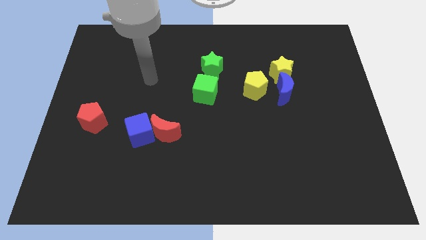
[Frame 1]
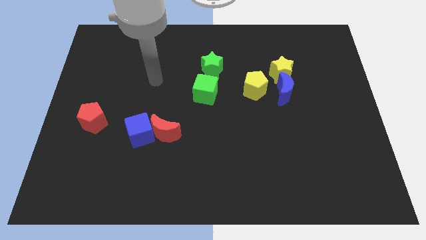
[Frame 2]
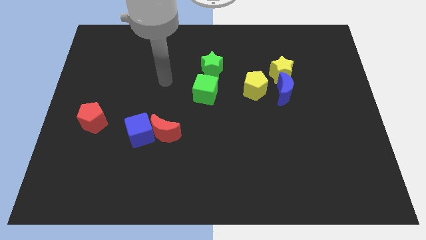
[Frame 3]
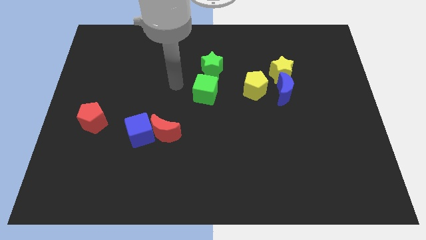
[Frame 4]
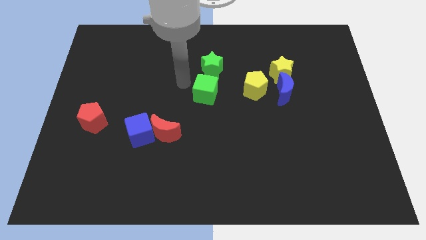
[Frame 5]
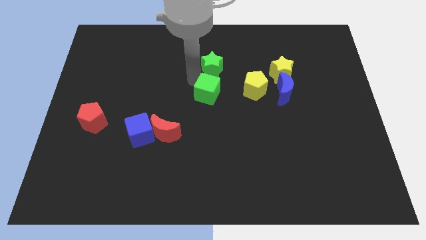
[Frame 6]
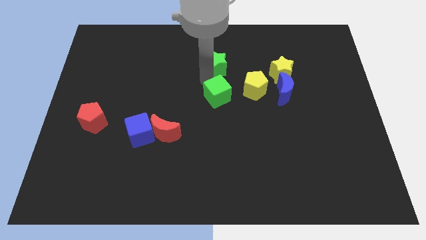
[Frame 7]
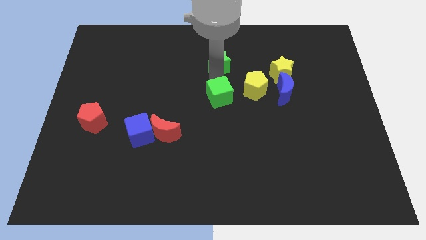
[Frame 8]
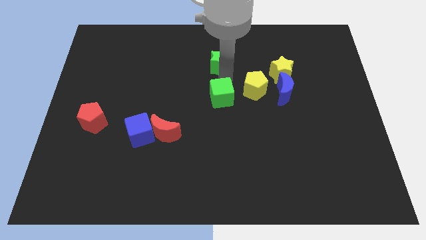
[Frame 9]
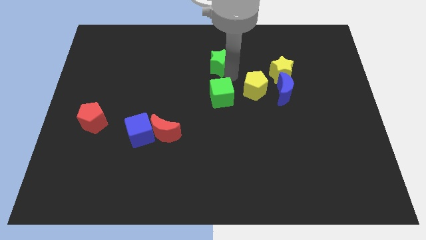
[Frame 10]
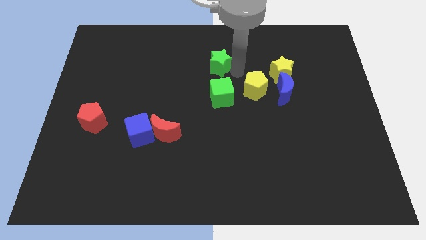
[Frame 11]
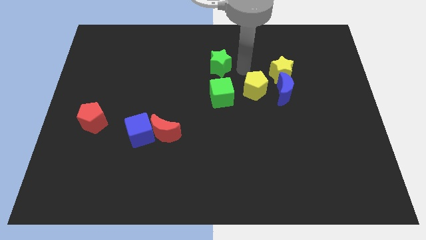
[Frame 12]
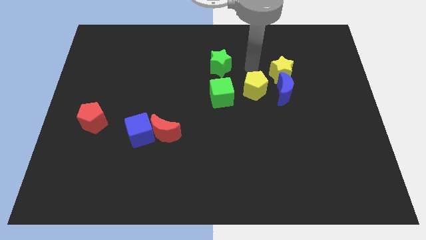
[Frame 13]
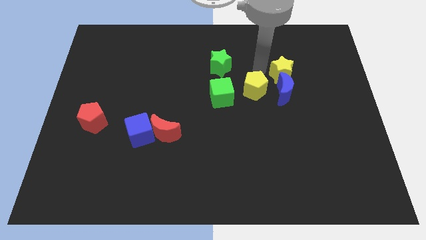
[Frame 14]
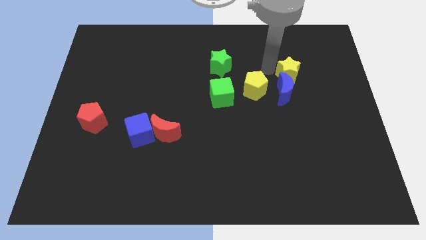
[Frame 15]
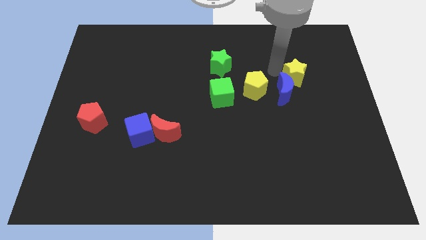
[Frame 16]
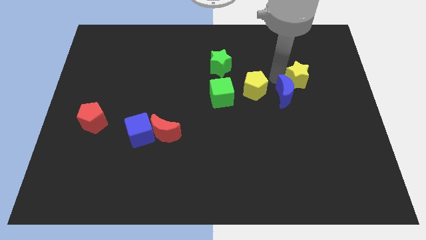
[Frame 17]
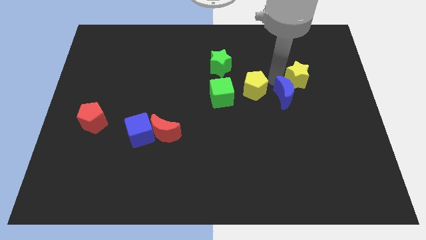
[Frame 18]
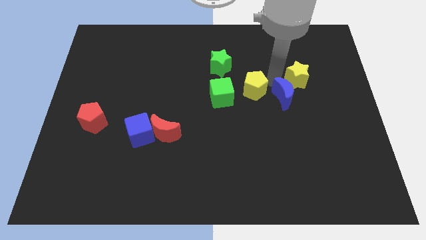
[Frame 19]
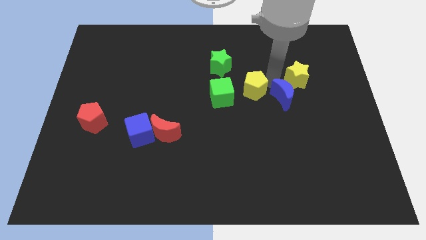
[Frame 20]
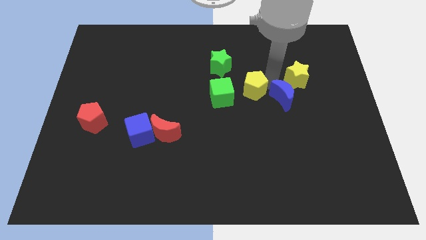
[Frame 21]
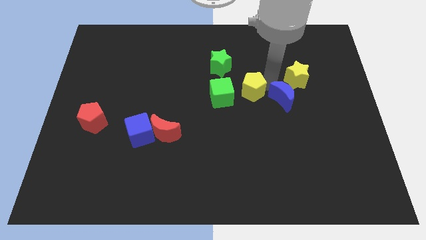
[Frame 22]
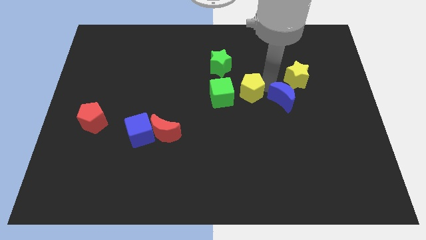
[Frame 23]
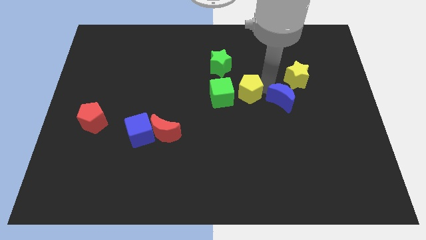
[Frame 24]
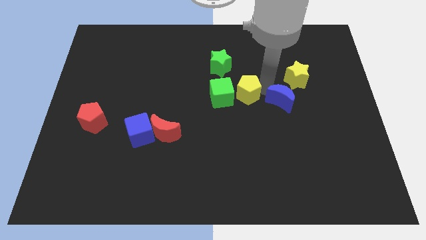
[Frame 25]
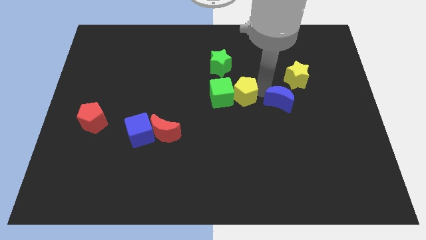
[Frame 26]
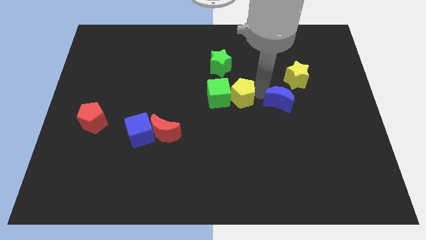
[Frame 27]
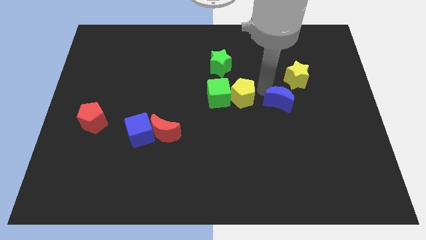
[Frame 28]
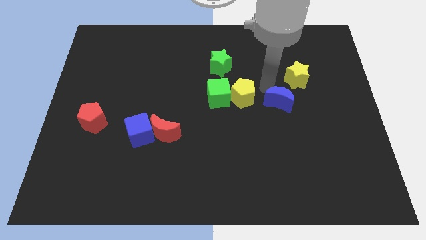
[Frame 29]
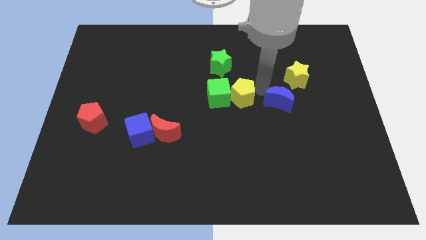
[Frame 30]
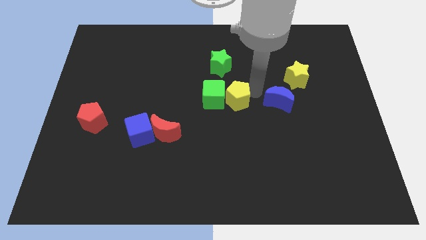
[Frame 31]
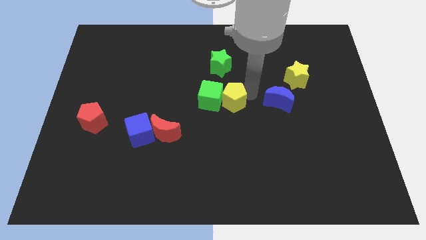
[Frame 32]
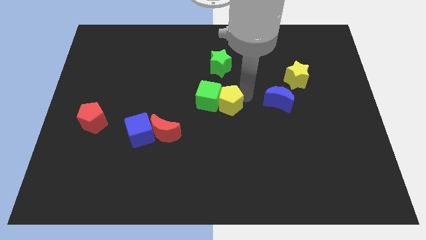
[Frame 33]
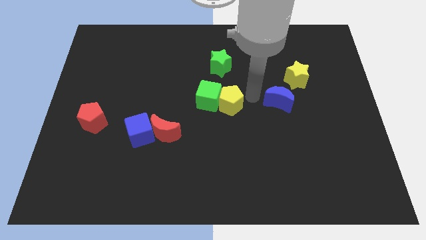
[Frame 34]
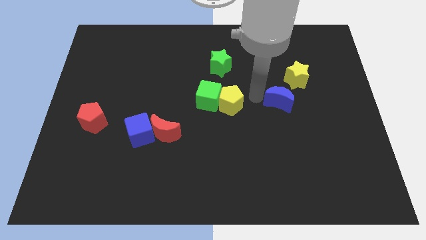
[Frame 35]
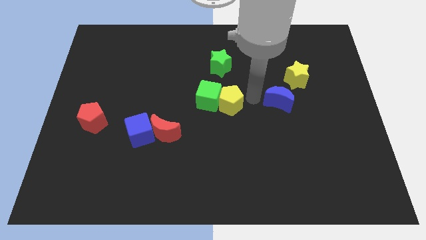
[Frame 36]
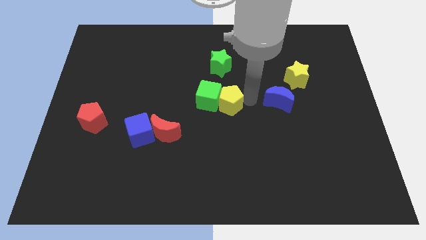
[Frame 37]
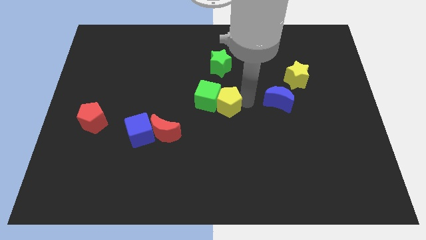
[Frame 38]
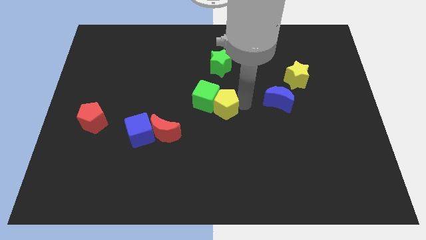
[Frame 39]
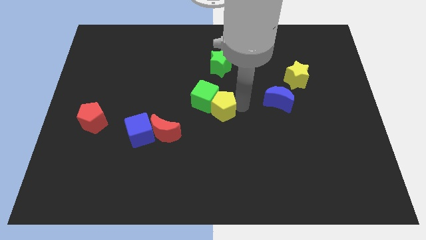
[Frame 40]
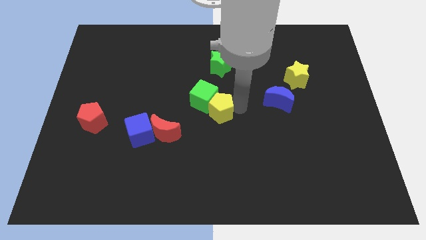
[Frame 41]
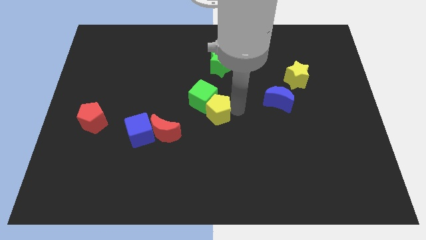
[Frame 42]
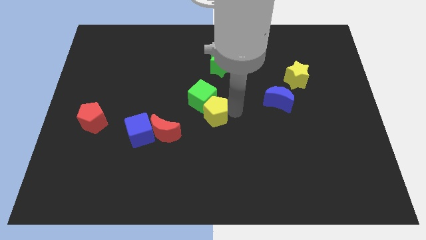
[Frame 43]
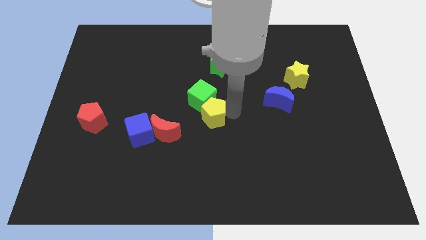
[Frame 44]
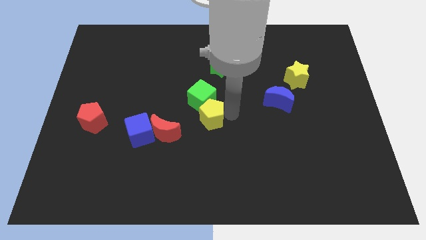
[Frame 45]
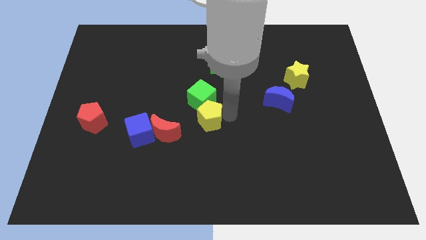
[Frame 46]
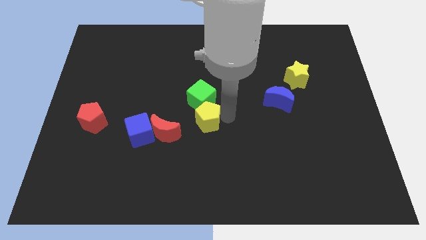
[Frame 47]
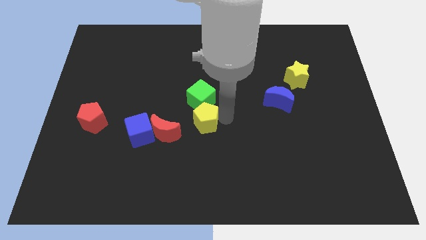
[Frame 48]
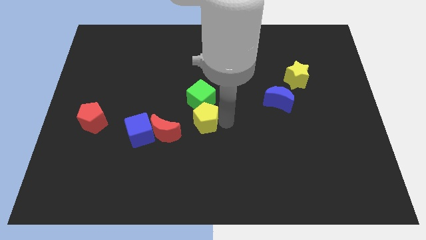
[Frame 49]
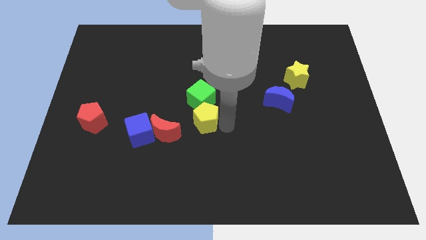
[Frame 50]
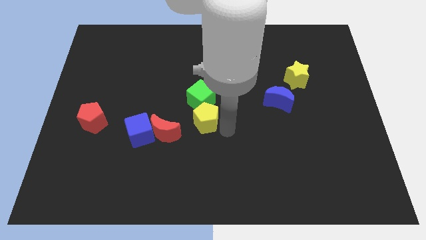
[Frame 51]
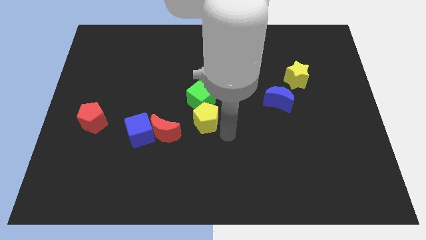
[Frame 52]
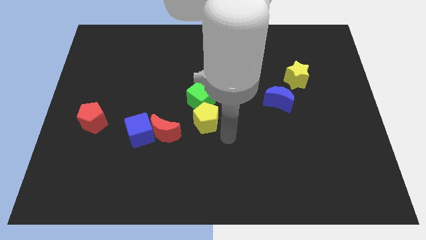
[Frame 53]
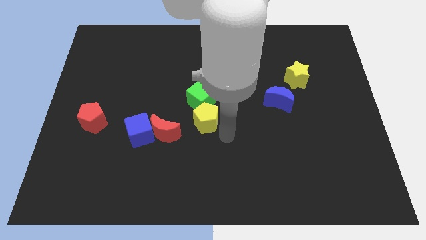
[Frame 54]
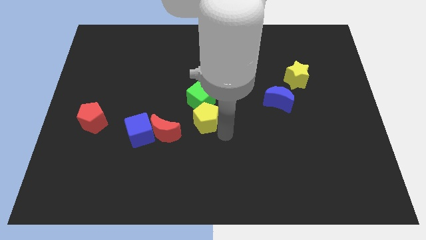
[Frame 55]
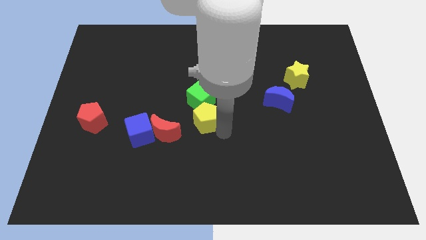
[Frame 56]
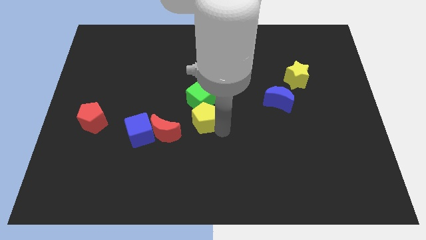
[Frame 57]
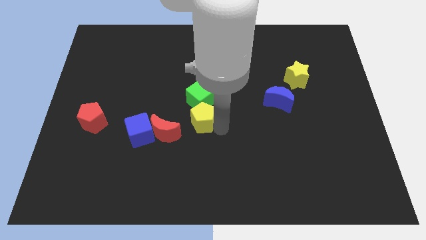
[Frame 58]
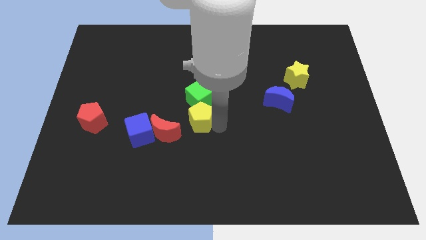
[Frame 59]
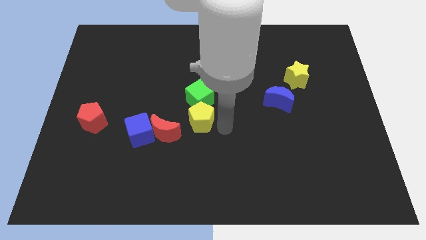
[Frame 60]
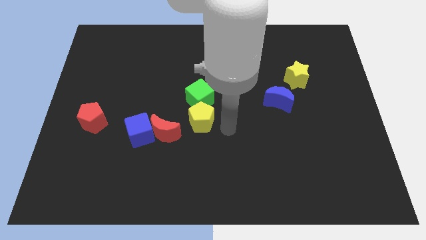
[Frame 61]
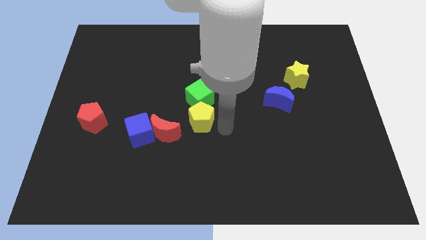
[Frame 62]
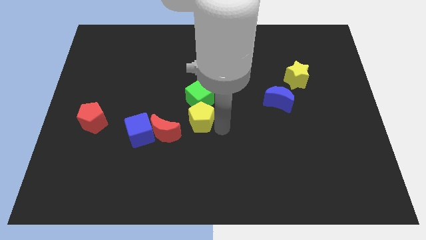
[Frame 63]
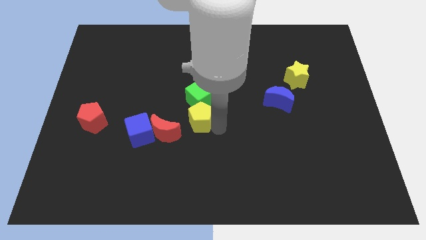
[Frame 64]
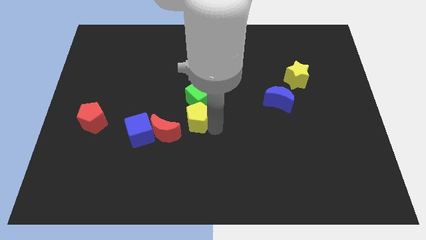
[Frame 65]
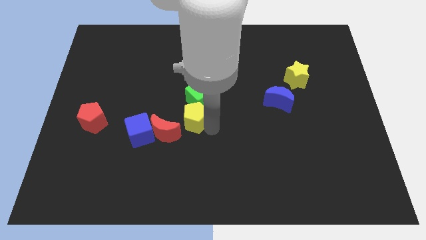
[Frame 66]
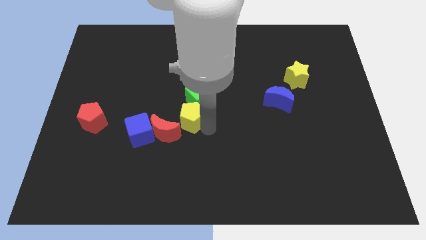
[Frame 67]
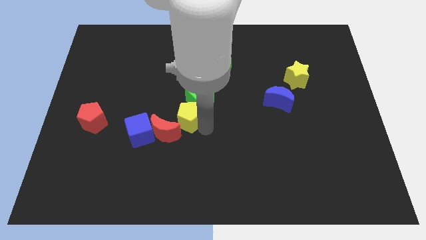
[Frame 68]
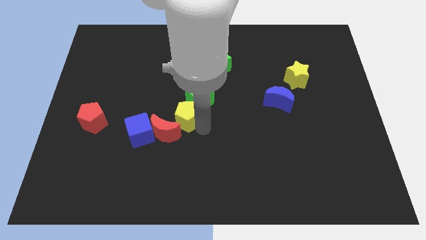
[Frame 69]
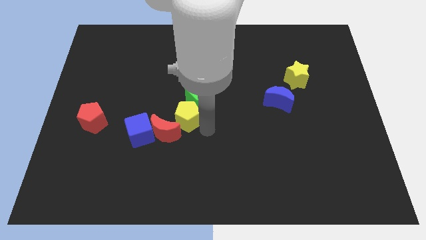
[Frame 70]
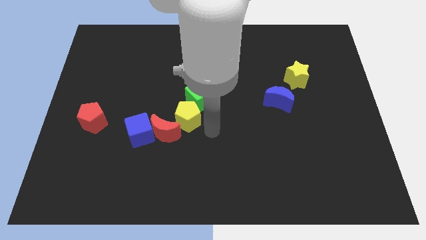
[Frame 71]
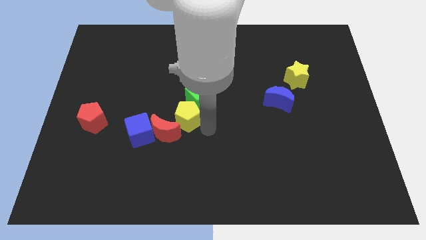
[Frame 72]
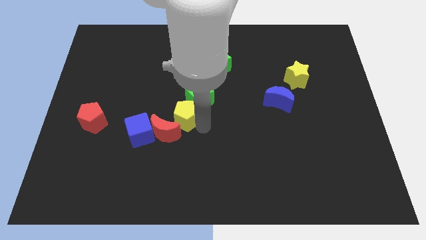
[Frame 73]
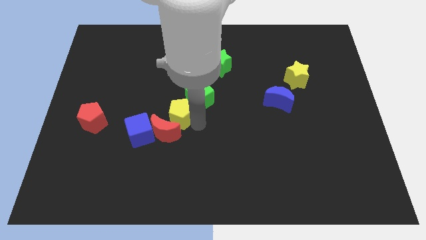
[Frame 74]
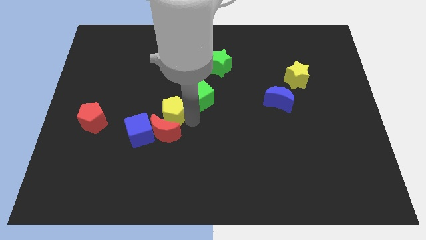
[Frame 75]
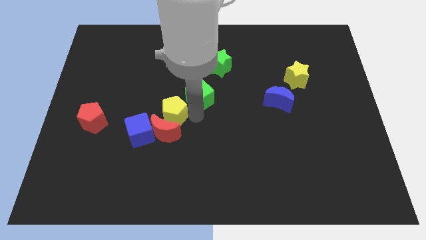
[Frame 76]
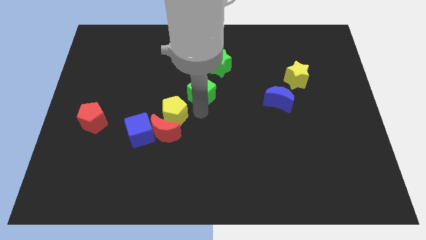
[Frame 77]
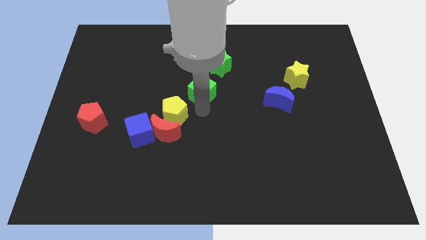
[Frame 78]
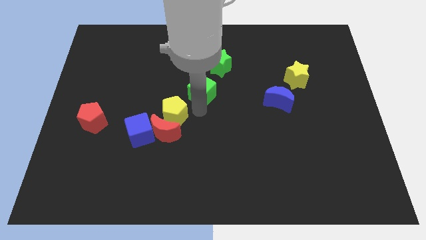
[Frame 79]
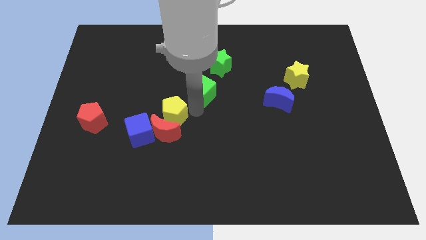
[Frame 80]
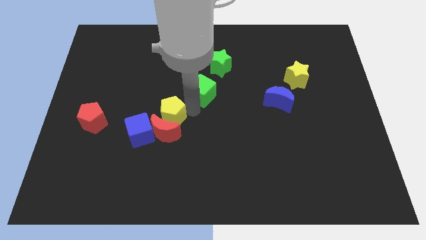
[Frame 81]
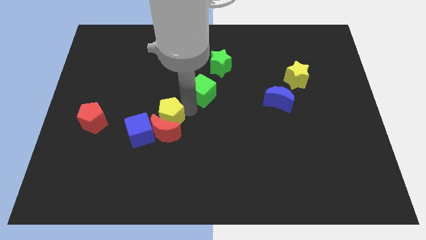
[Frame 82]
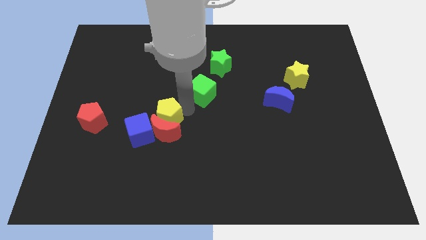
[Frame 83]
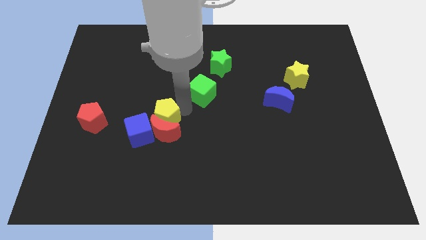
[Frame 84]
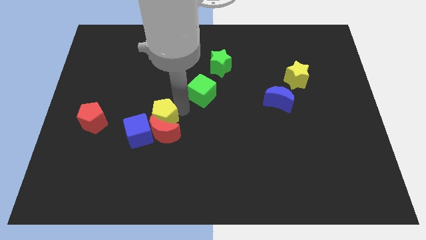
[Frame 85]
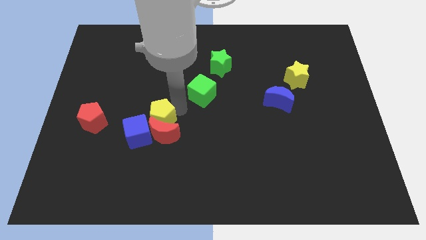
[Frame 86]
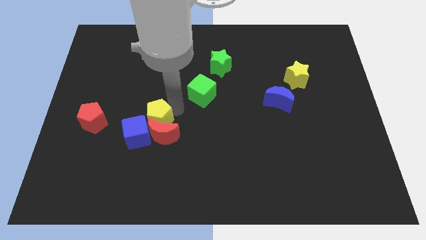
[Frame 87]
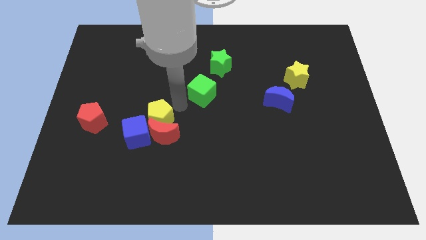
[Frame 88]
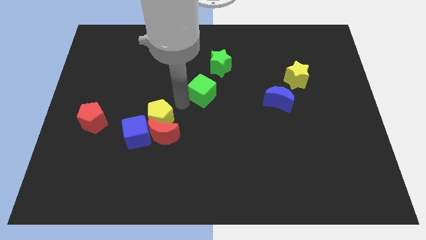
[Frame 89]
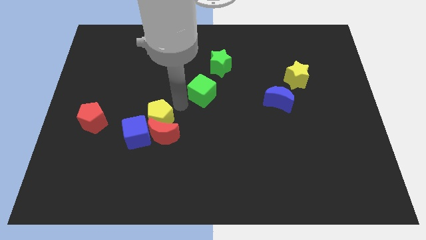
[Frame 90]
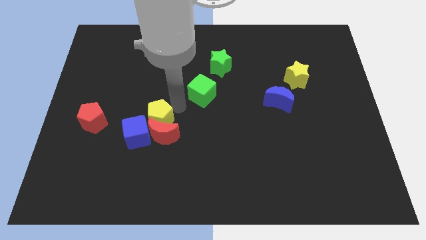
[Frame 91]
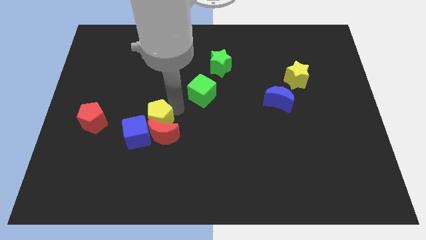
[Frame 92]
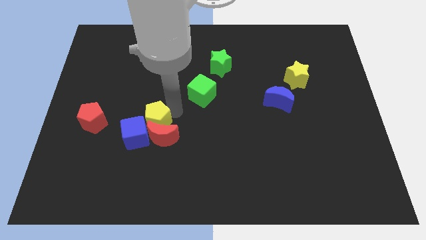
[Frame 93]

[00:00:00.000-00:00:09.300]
move the yellow pentagon towards the blue cube
